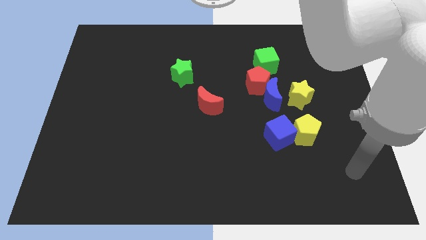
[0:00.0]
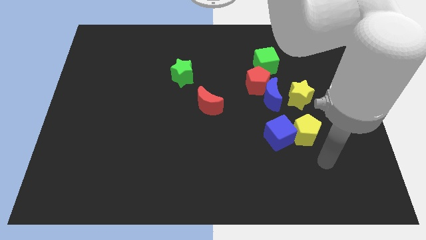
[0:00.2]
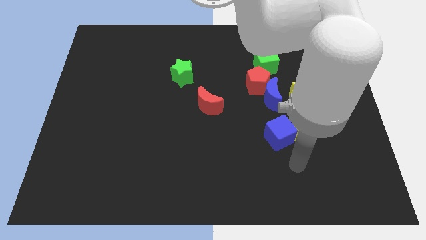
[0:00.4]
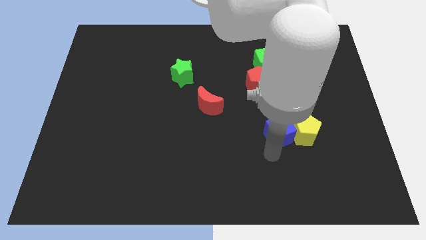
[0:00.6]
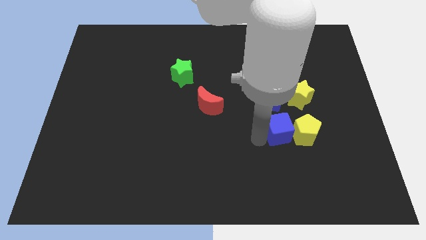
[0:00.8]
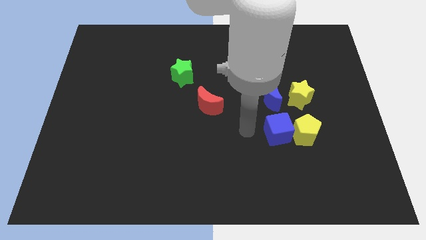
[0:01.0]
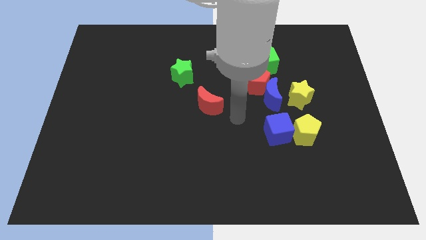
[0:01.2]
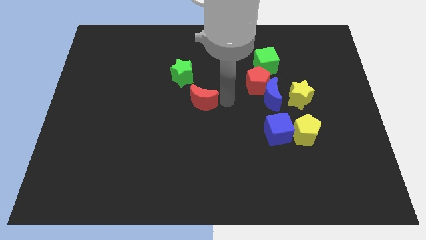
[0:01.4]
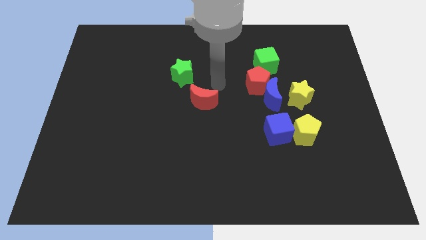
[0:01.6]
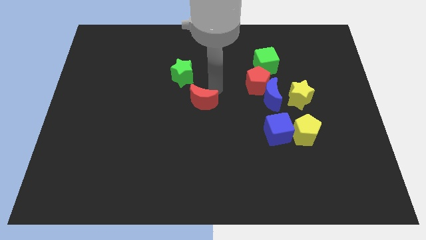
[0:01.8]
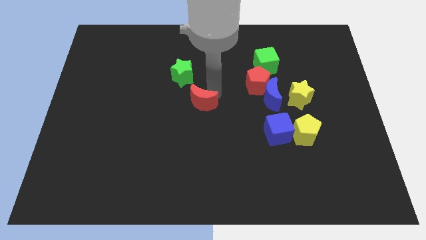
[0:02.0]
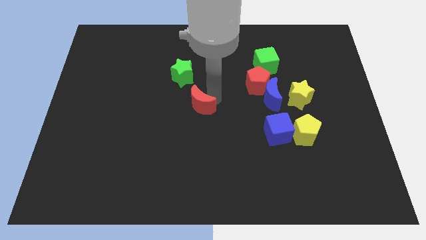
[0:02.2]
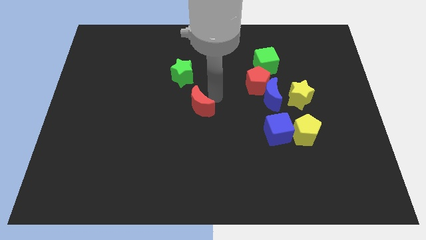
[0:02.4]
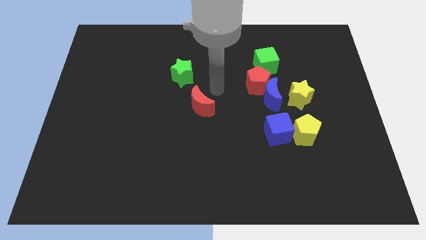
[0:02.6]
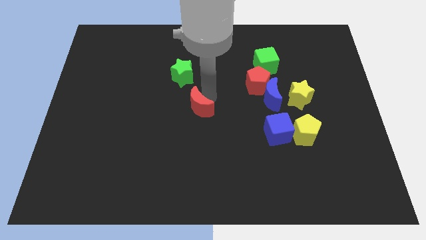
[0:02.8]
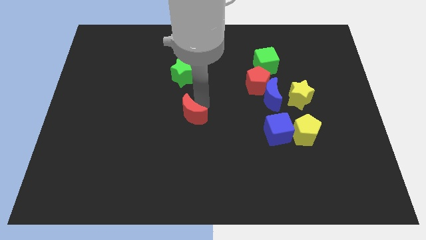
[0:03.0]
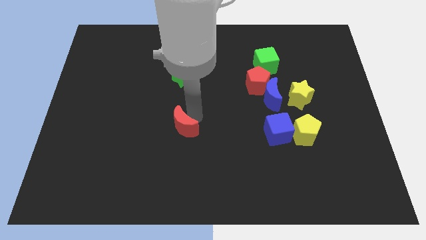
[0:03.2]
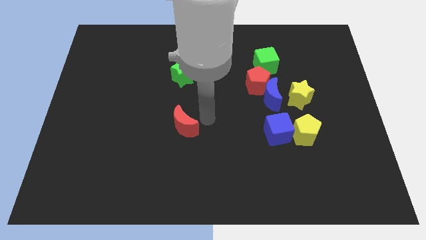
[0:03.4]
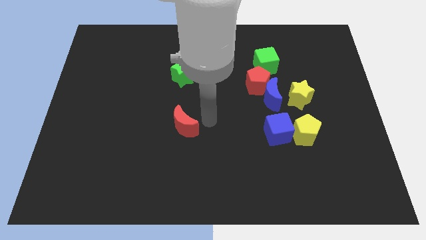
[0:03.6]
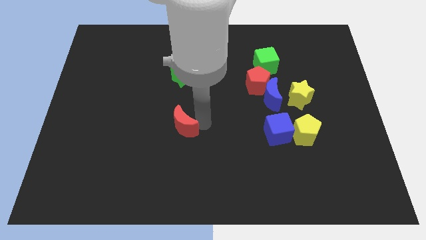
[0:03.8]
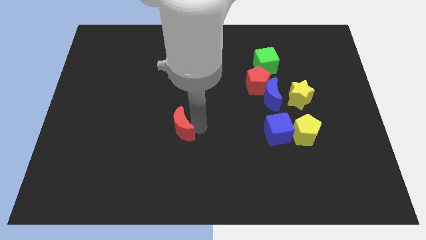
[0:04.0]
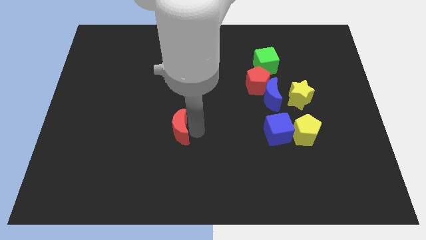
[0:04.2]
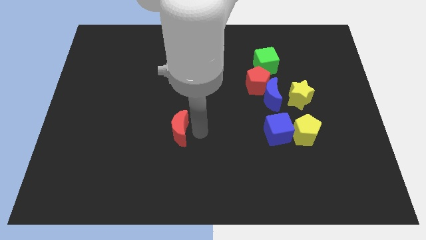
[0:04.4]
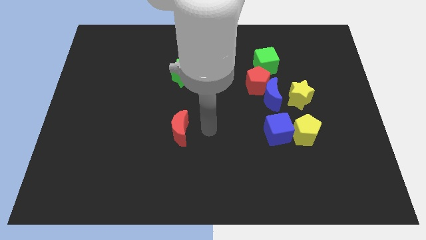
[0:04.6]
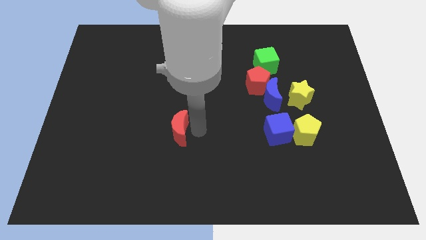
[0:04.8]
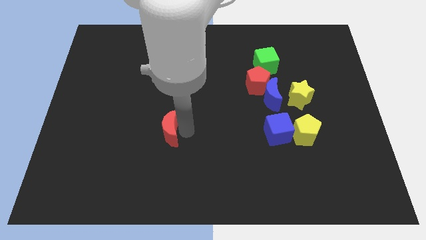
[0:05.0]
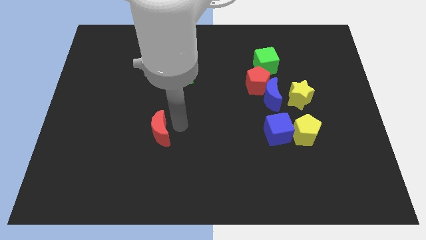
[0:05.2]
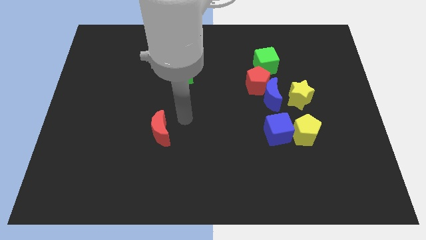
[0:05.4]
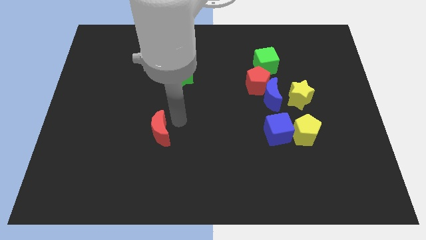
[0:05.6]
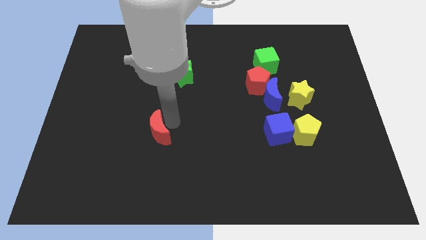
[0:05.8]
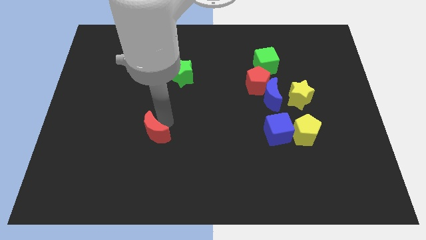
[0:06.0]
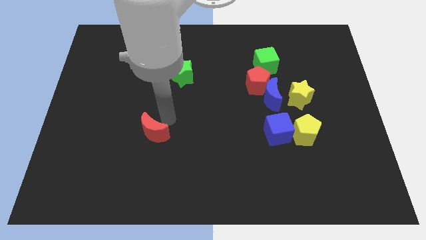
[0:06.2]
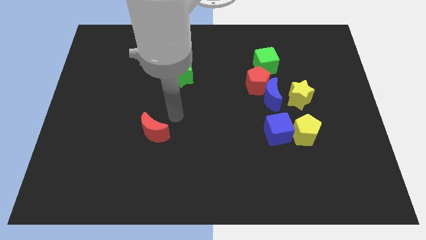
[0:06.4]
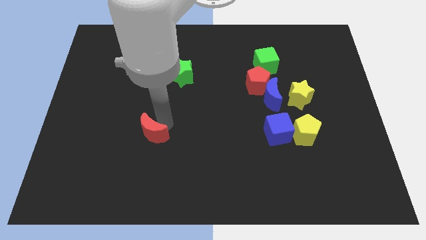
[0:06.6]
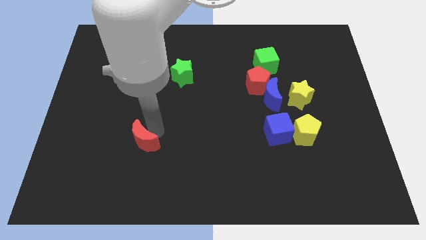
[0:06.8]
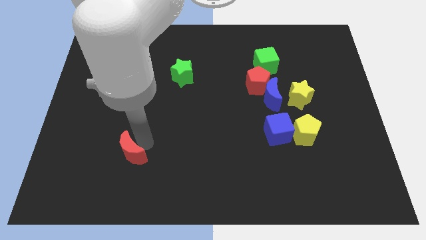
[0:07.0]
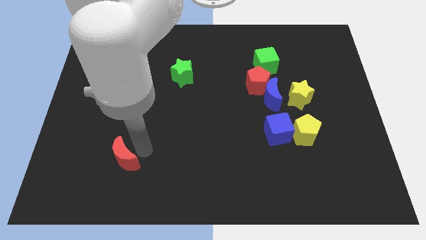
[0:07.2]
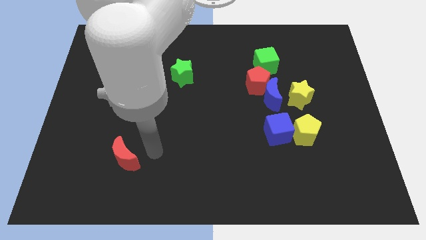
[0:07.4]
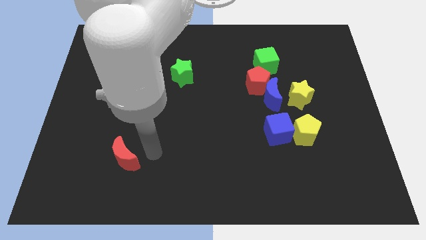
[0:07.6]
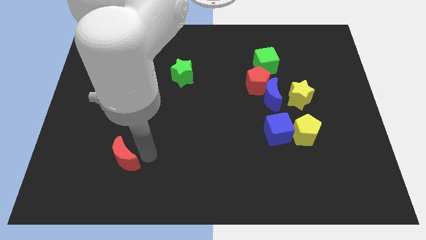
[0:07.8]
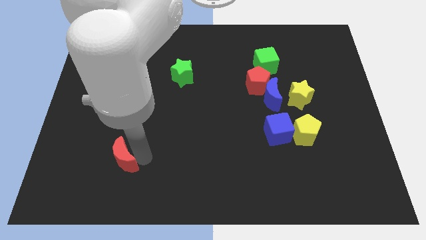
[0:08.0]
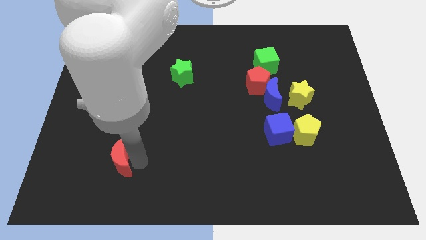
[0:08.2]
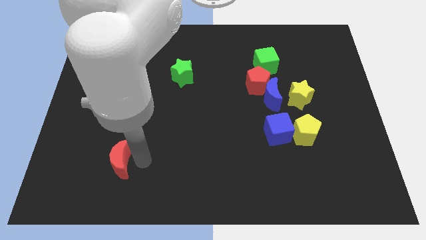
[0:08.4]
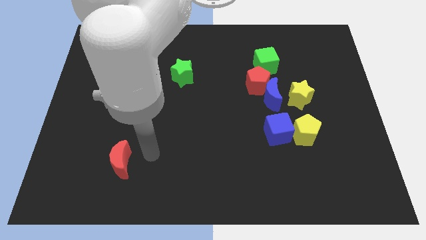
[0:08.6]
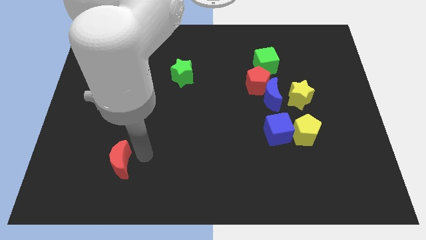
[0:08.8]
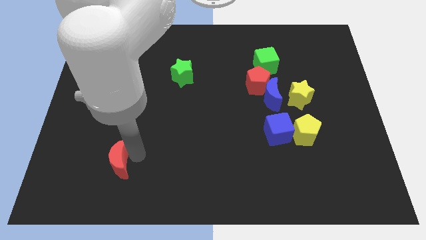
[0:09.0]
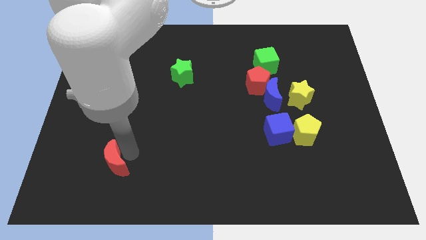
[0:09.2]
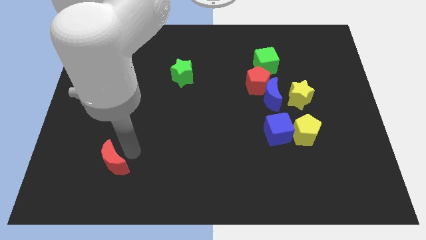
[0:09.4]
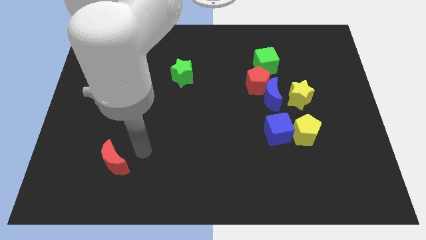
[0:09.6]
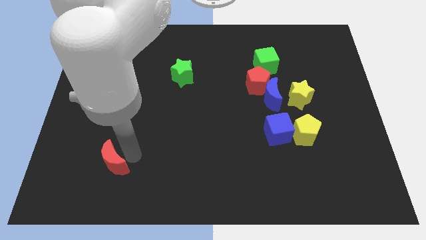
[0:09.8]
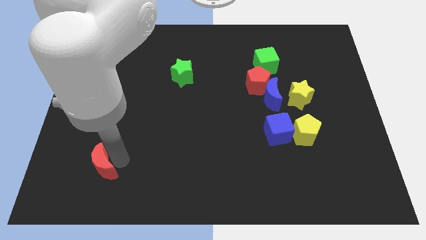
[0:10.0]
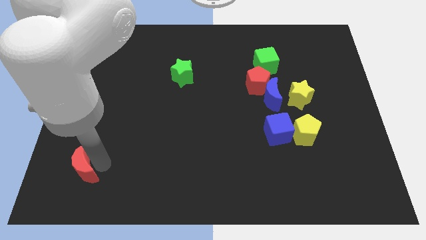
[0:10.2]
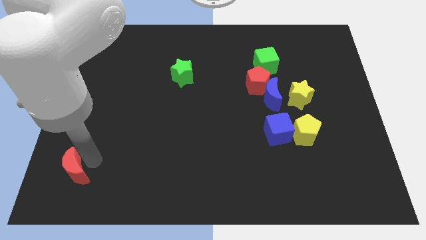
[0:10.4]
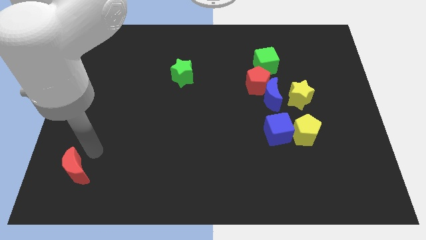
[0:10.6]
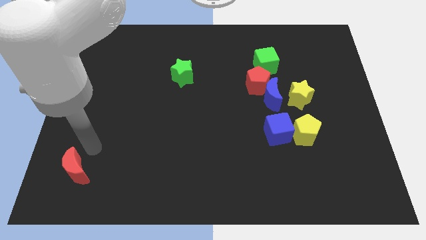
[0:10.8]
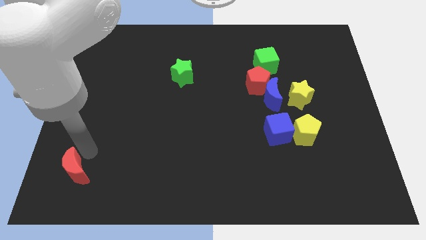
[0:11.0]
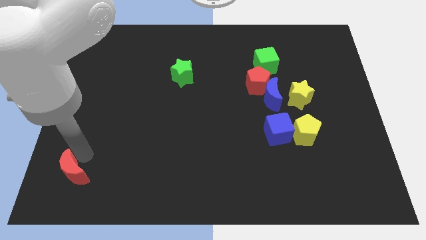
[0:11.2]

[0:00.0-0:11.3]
move the red moon to the bottom left of the board

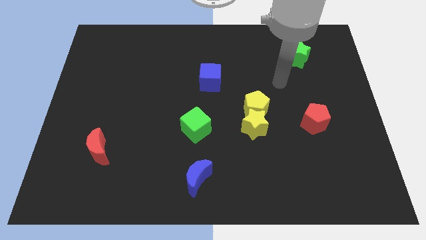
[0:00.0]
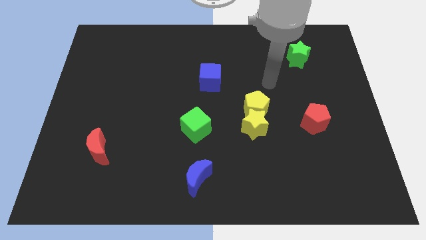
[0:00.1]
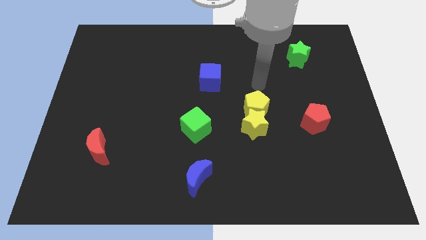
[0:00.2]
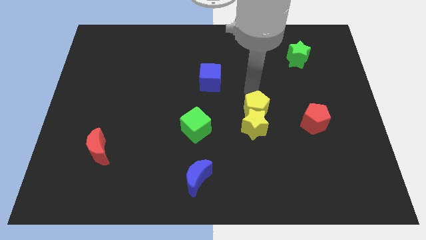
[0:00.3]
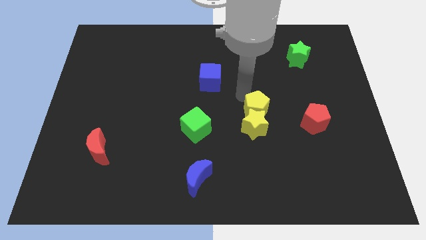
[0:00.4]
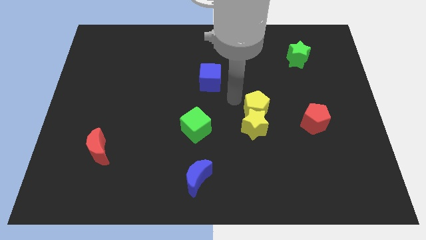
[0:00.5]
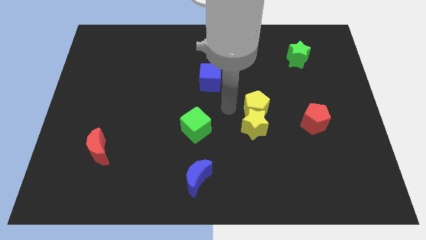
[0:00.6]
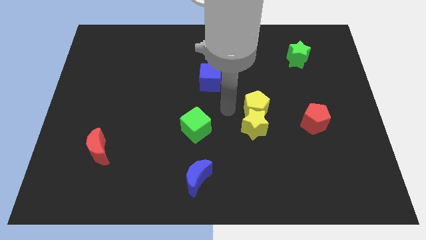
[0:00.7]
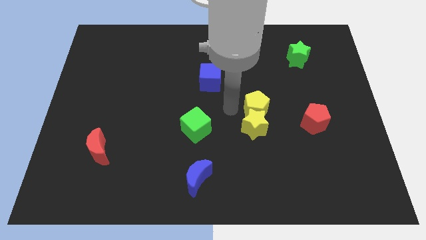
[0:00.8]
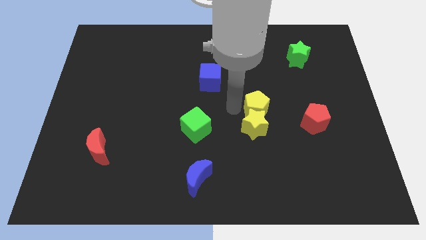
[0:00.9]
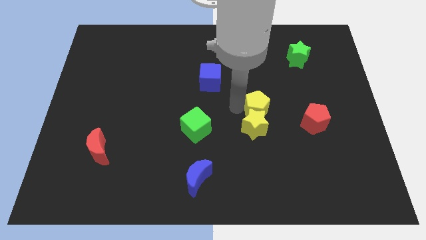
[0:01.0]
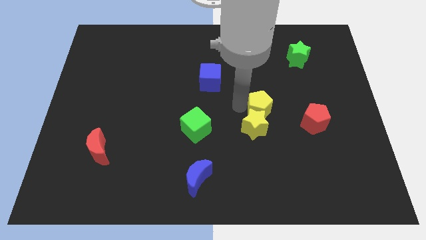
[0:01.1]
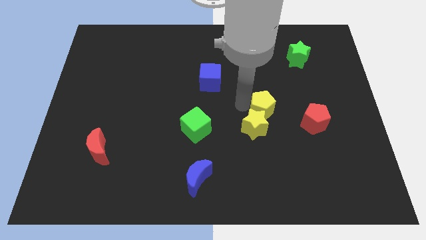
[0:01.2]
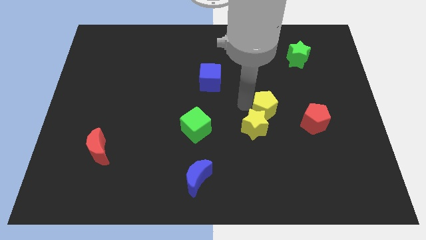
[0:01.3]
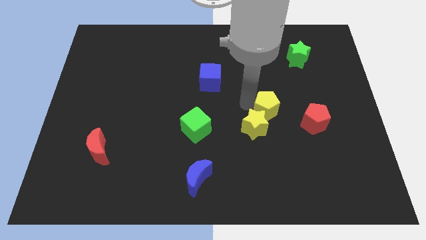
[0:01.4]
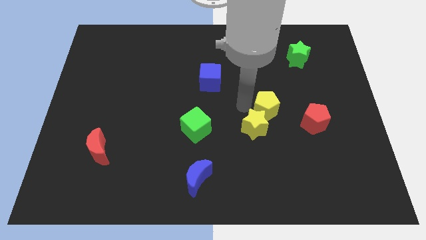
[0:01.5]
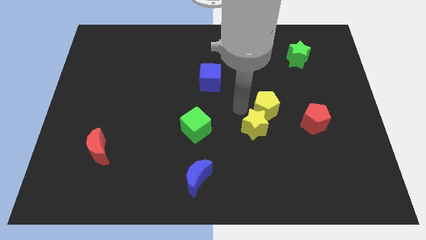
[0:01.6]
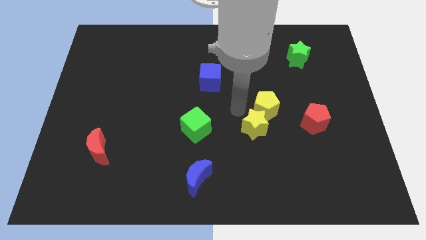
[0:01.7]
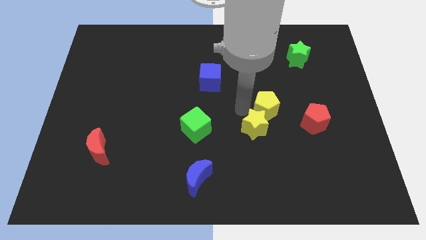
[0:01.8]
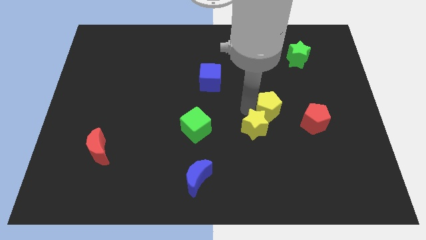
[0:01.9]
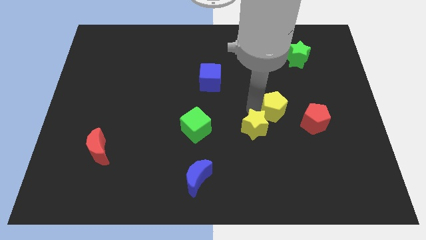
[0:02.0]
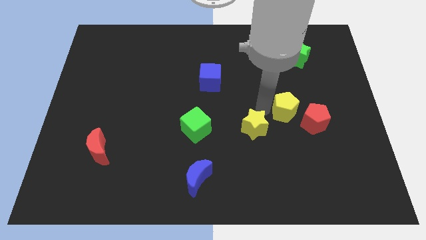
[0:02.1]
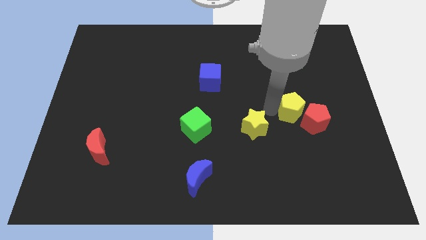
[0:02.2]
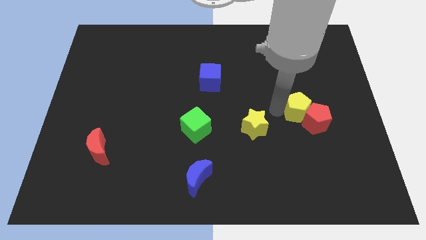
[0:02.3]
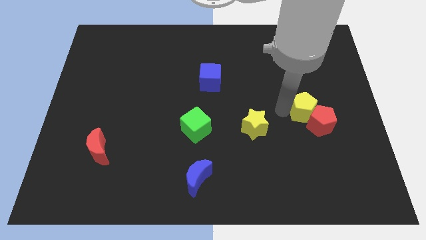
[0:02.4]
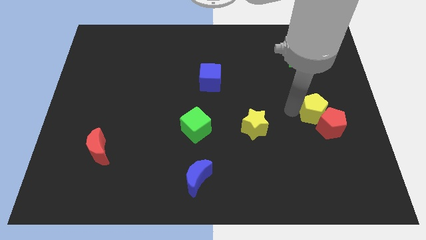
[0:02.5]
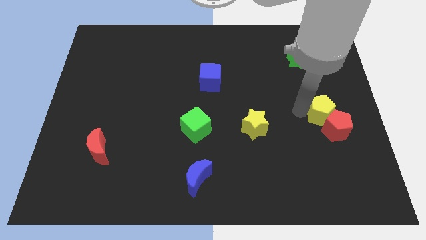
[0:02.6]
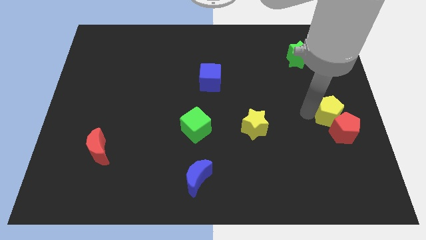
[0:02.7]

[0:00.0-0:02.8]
slide the yellow pentagon to the center right
